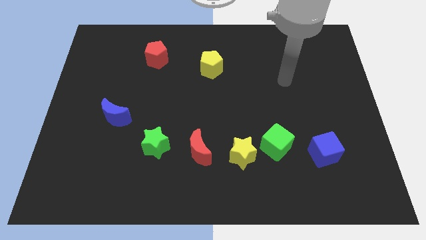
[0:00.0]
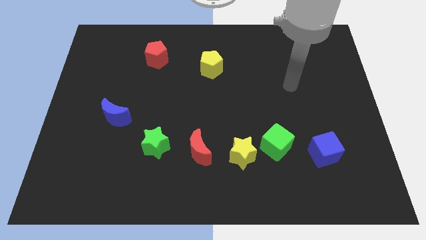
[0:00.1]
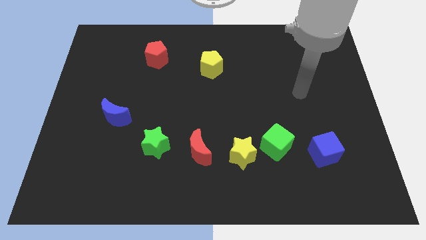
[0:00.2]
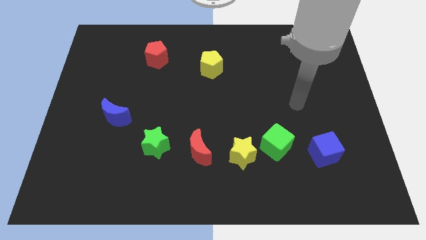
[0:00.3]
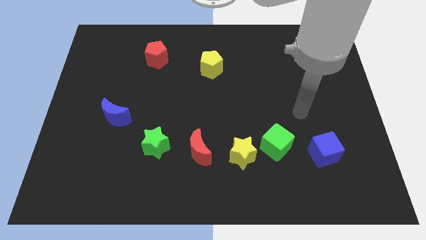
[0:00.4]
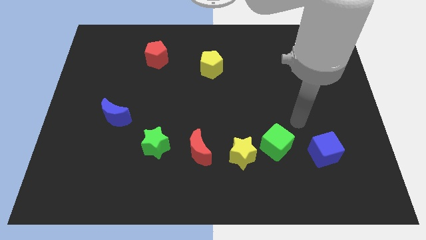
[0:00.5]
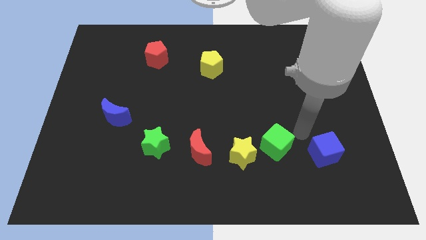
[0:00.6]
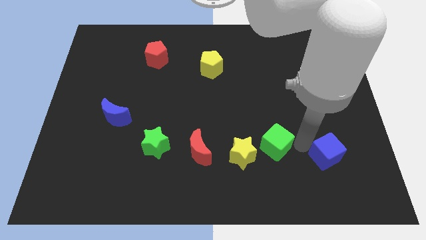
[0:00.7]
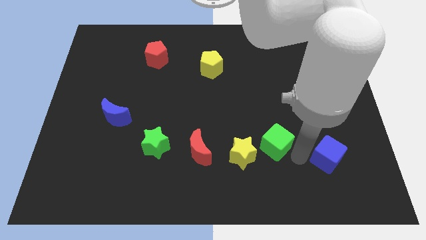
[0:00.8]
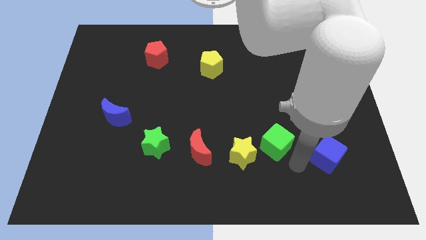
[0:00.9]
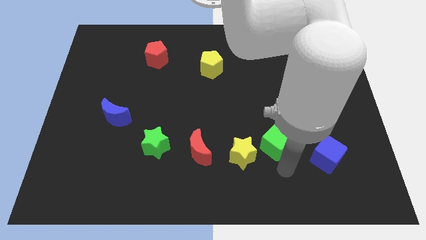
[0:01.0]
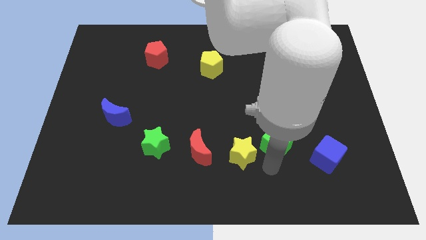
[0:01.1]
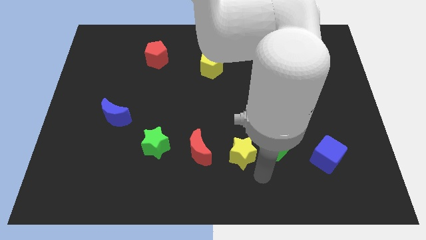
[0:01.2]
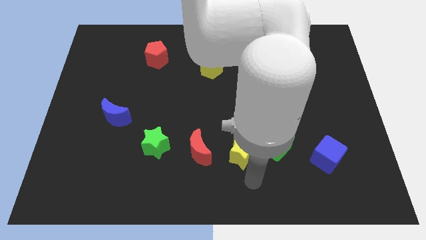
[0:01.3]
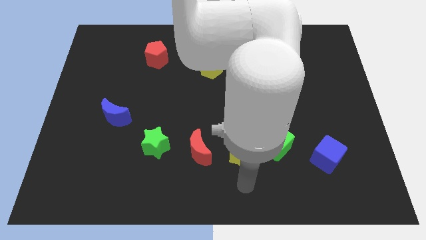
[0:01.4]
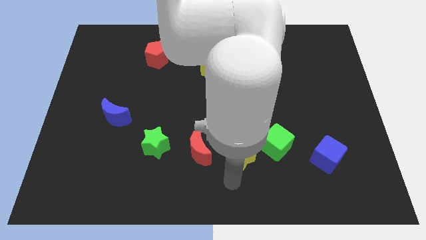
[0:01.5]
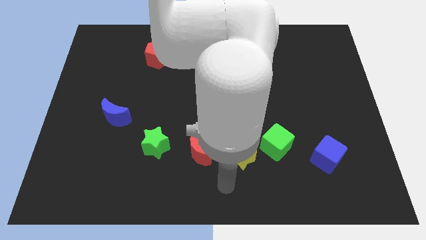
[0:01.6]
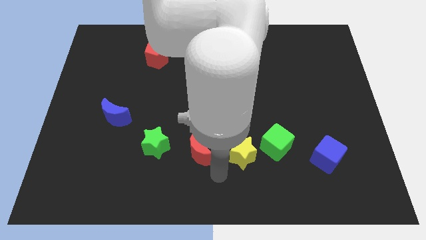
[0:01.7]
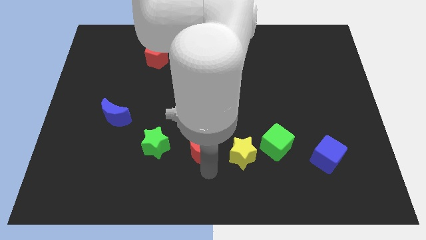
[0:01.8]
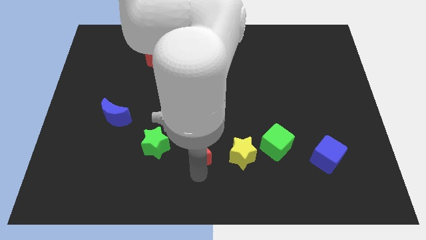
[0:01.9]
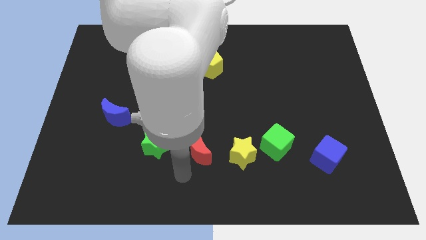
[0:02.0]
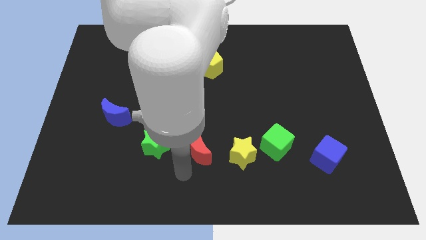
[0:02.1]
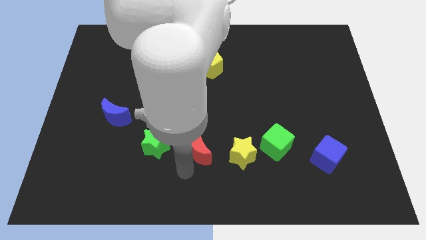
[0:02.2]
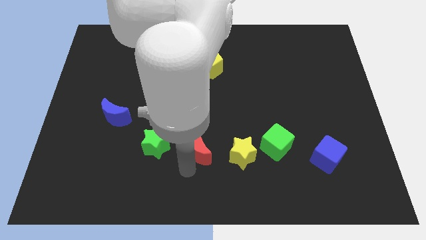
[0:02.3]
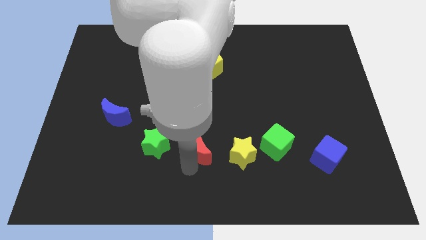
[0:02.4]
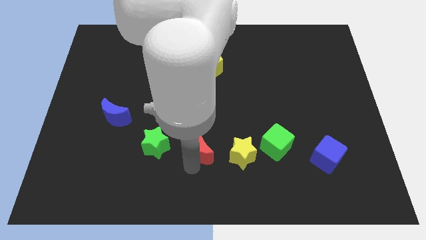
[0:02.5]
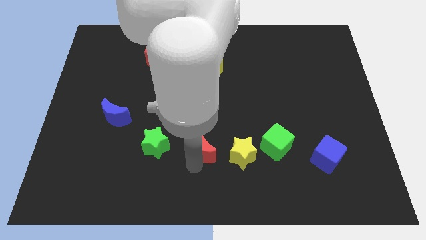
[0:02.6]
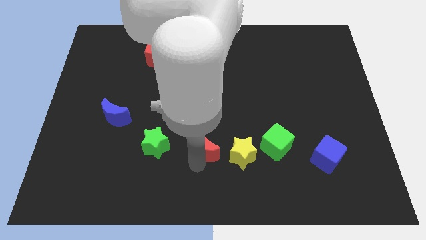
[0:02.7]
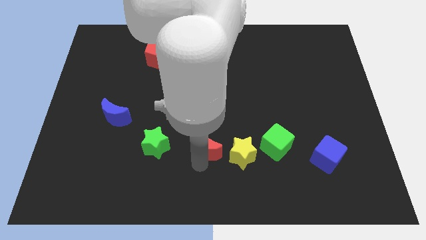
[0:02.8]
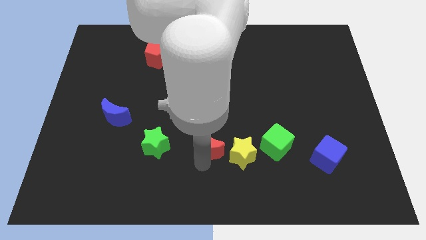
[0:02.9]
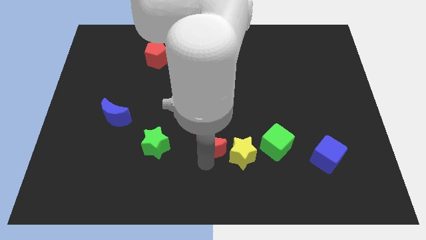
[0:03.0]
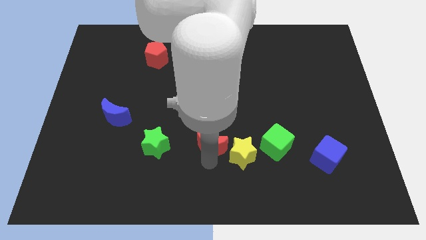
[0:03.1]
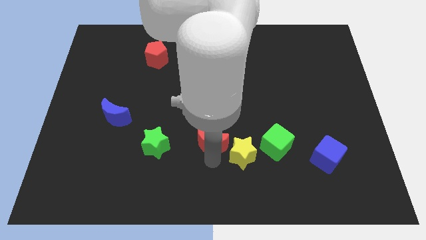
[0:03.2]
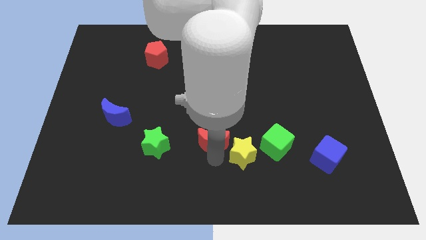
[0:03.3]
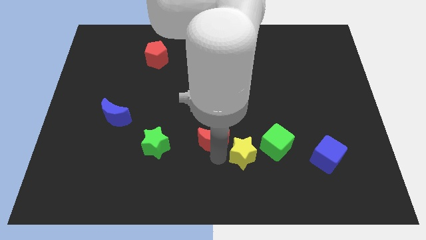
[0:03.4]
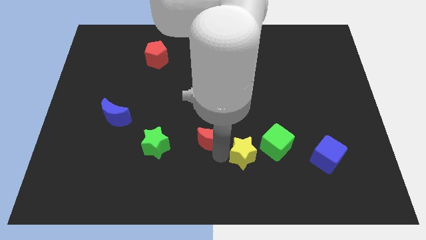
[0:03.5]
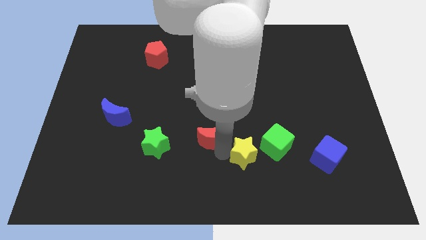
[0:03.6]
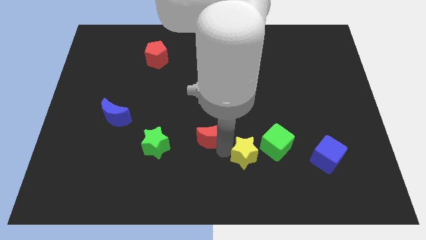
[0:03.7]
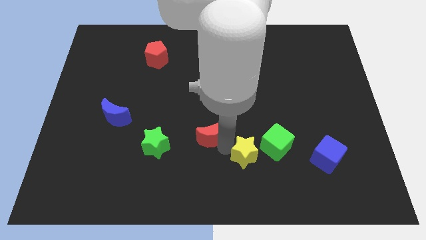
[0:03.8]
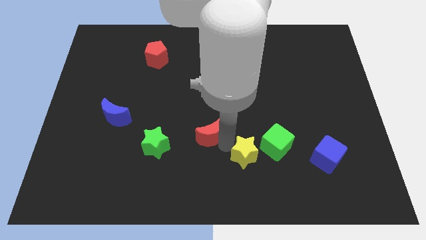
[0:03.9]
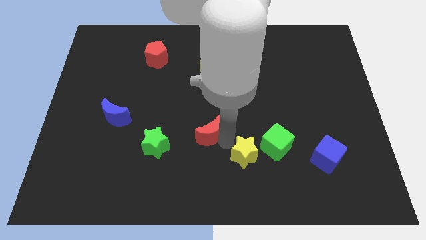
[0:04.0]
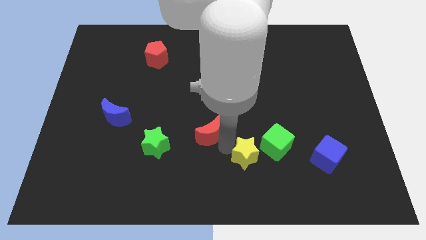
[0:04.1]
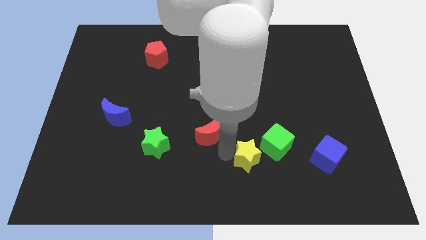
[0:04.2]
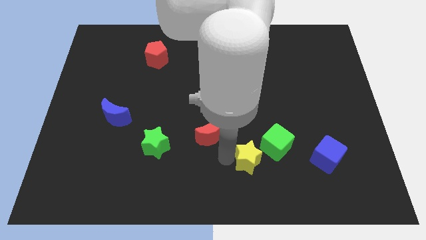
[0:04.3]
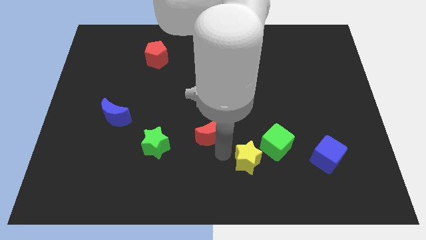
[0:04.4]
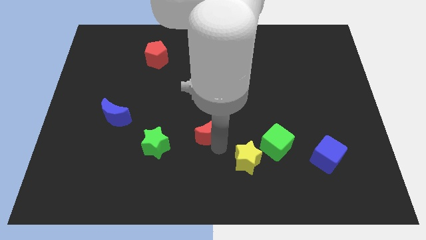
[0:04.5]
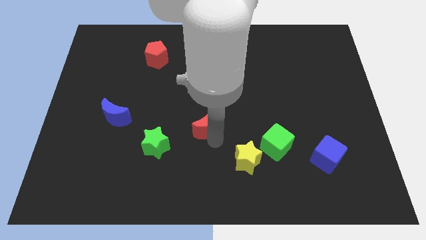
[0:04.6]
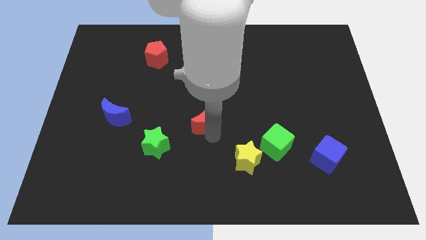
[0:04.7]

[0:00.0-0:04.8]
slightly slide the red moon up

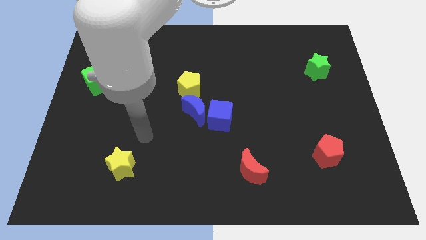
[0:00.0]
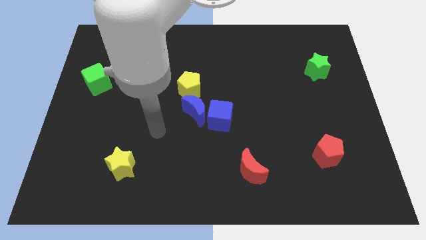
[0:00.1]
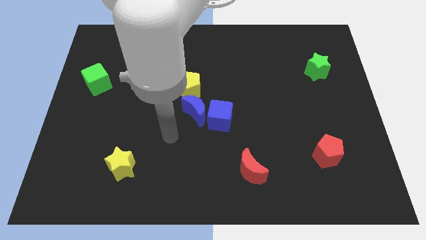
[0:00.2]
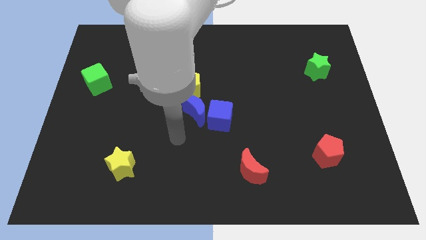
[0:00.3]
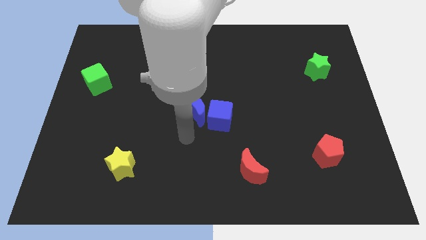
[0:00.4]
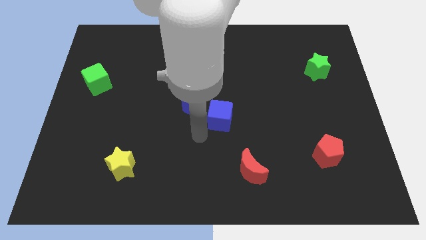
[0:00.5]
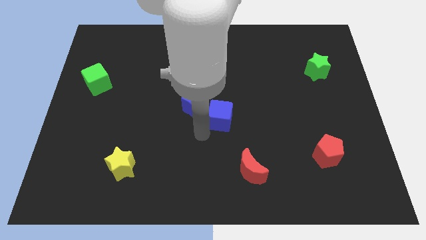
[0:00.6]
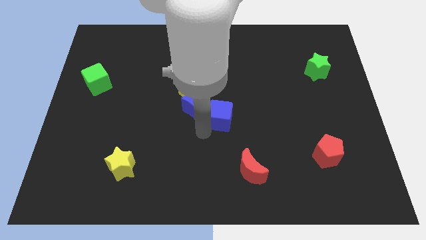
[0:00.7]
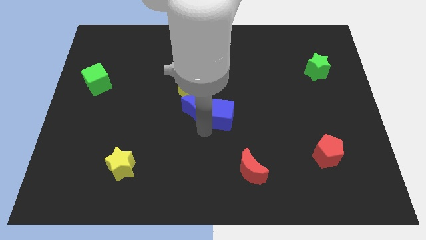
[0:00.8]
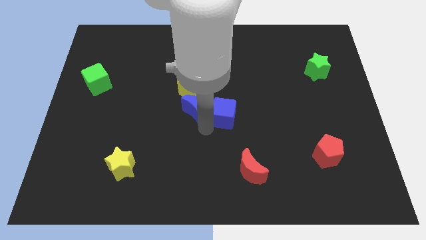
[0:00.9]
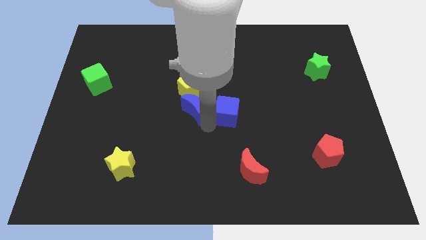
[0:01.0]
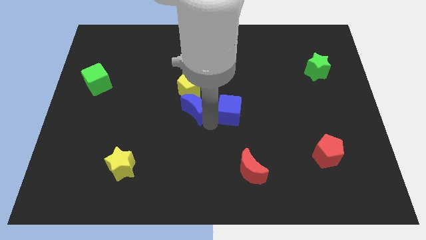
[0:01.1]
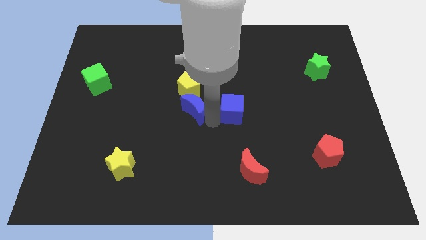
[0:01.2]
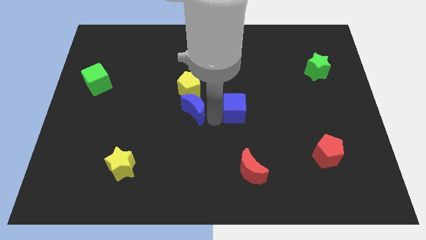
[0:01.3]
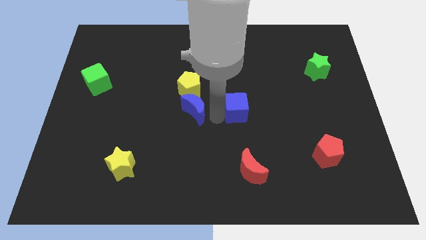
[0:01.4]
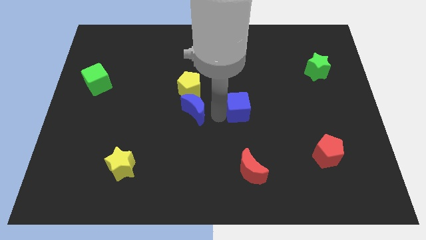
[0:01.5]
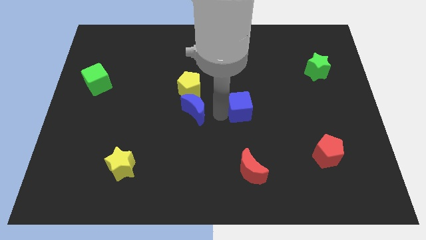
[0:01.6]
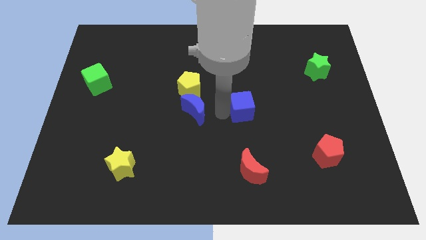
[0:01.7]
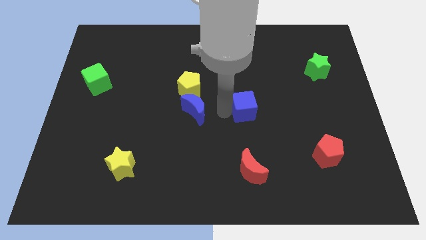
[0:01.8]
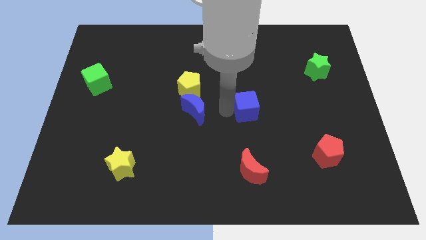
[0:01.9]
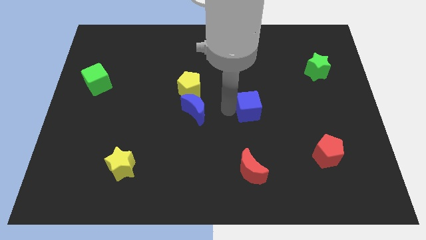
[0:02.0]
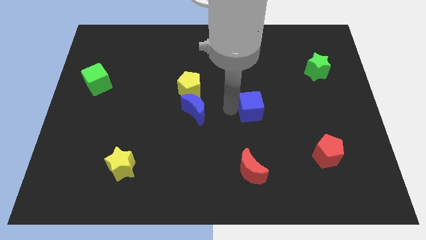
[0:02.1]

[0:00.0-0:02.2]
push the blue cube upwards and then right a little

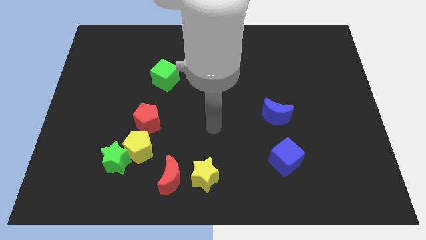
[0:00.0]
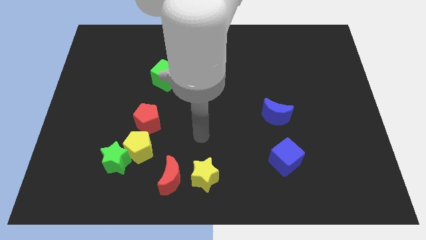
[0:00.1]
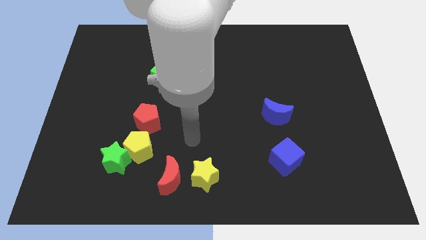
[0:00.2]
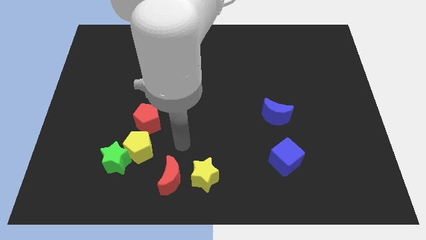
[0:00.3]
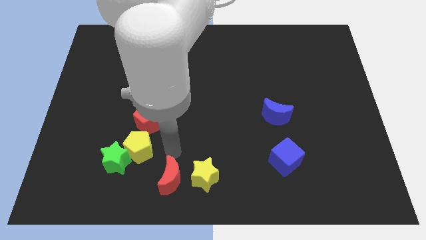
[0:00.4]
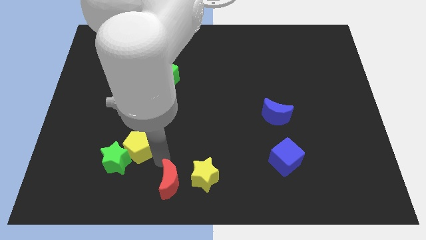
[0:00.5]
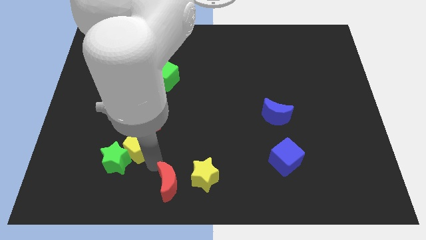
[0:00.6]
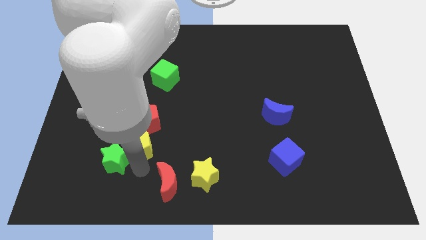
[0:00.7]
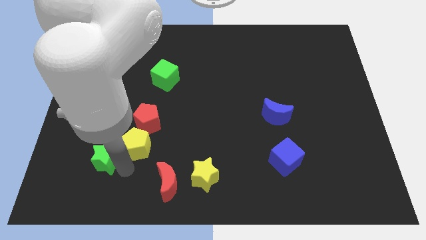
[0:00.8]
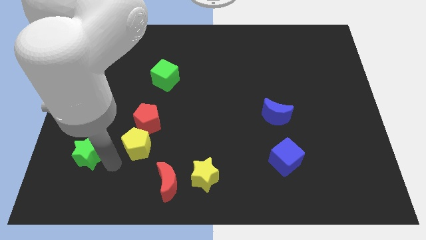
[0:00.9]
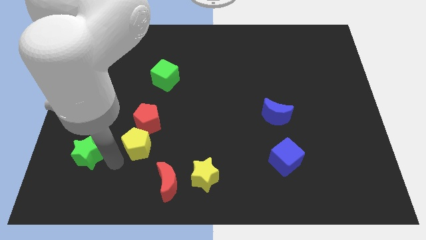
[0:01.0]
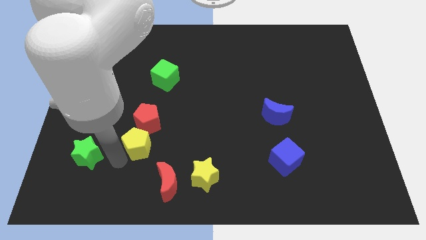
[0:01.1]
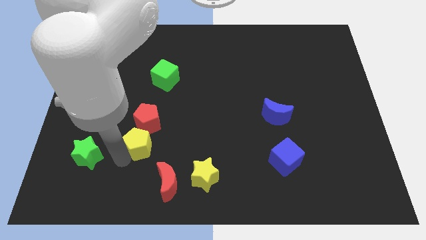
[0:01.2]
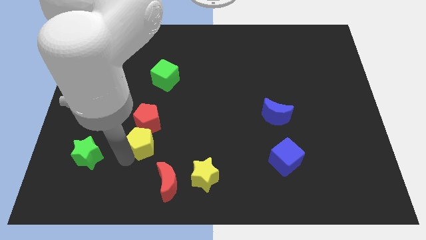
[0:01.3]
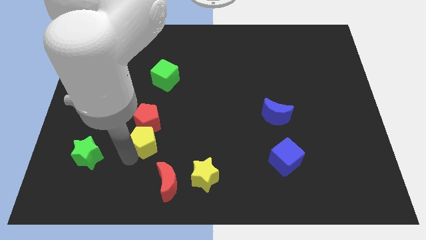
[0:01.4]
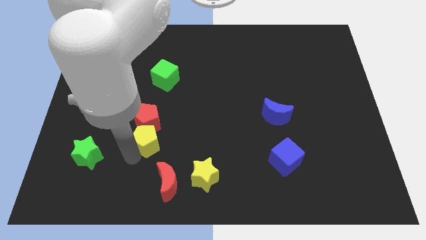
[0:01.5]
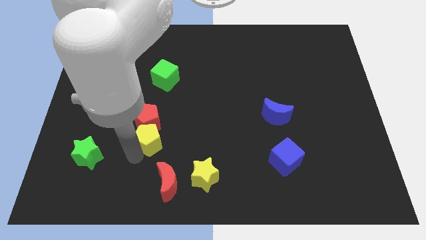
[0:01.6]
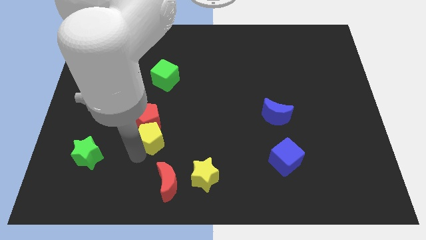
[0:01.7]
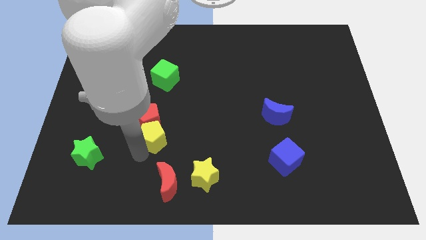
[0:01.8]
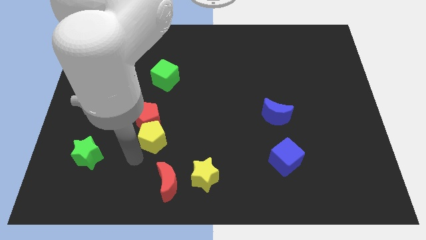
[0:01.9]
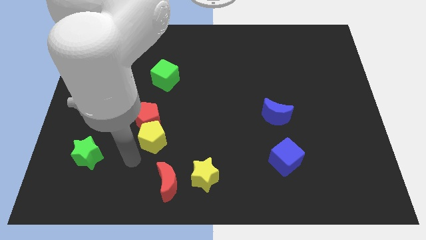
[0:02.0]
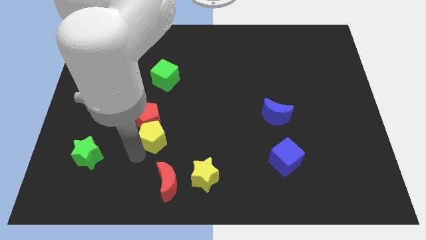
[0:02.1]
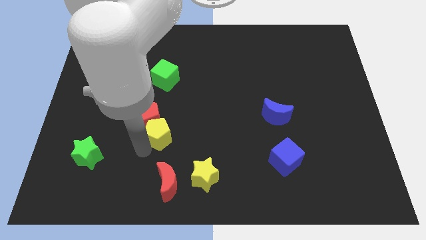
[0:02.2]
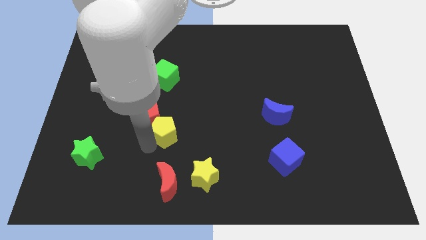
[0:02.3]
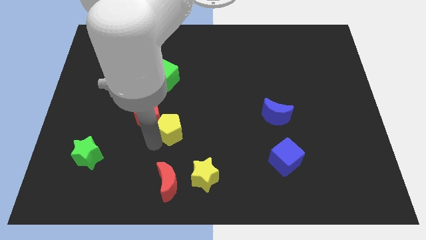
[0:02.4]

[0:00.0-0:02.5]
slide the yellow pentagon upwards and right a bit
